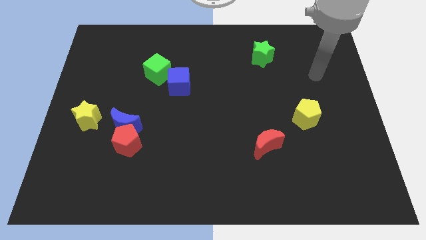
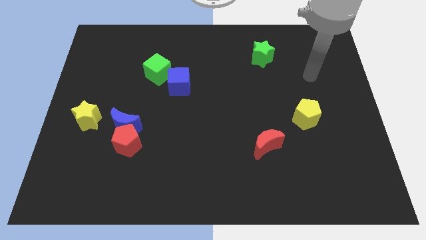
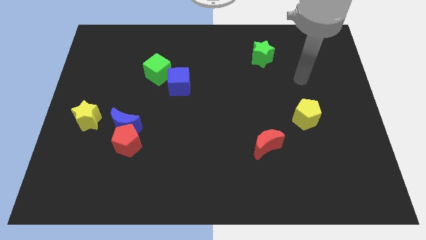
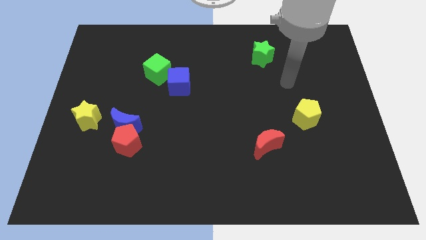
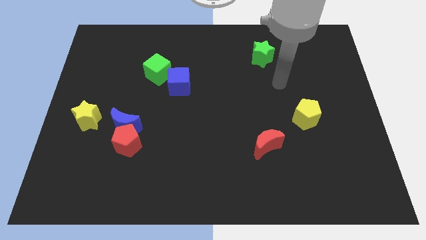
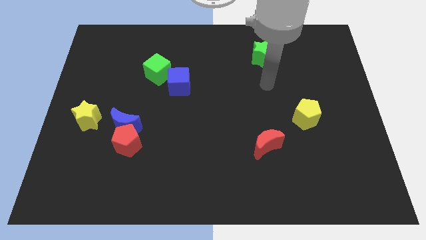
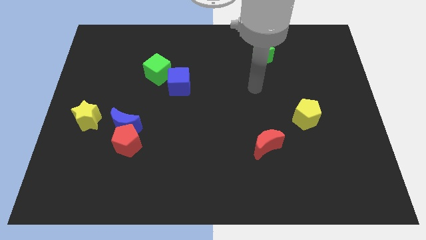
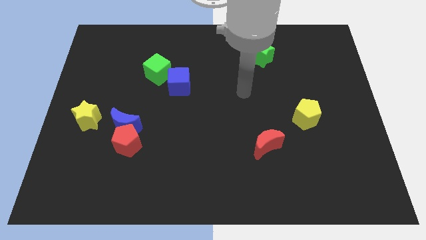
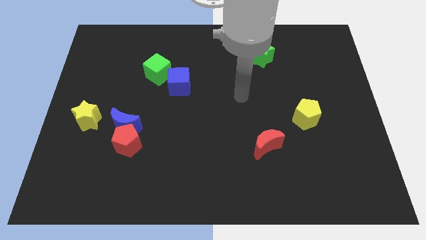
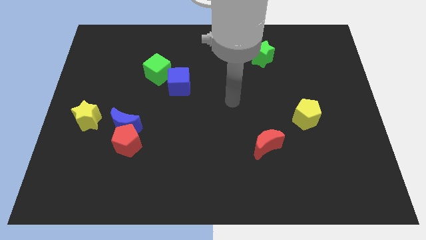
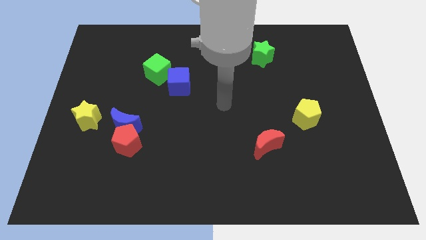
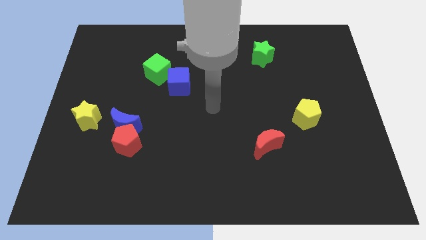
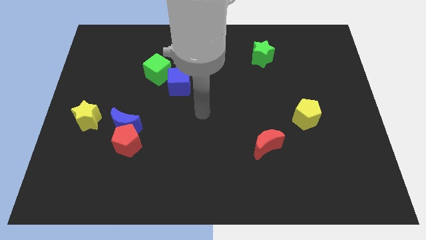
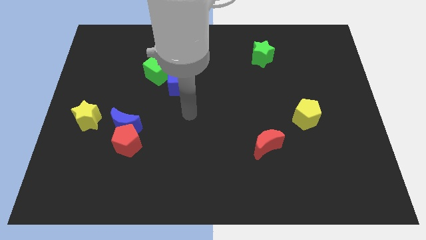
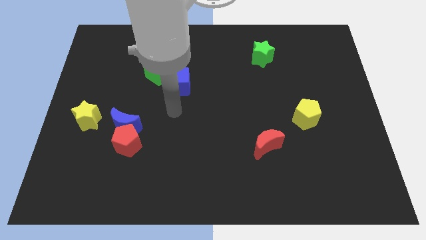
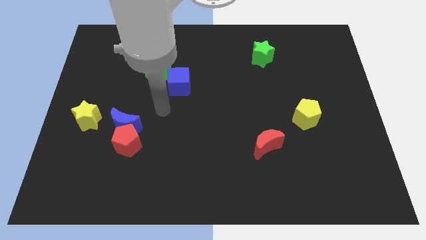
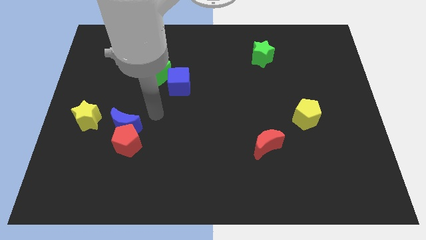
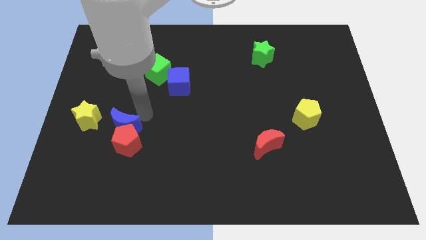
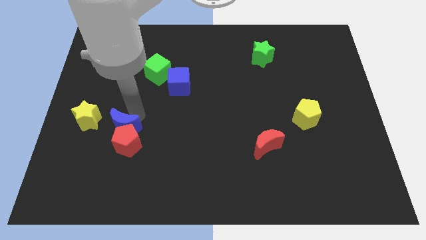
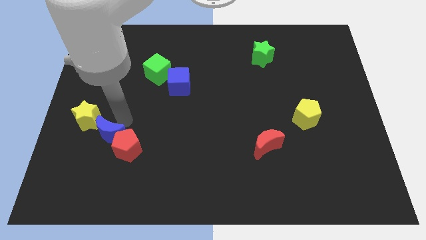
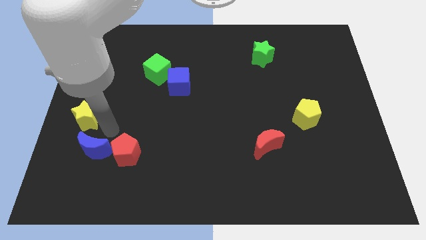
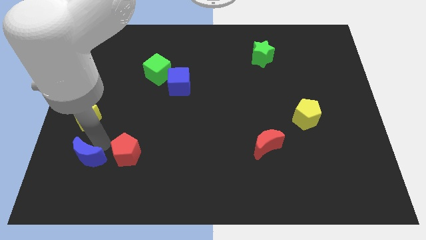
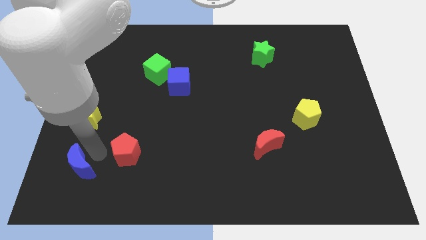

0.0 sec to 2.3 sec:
pull the red pentagon apart from the blue moon

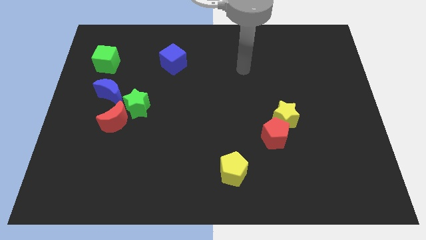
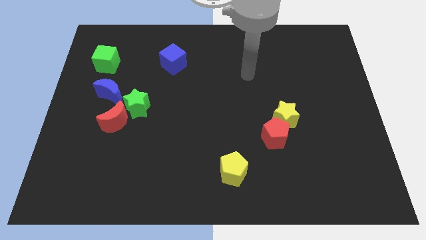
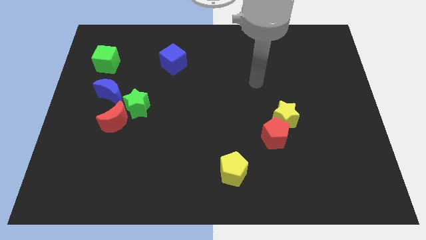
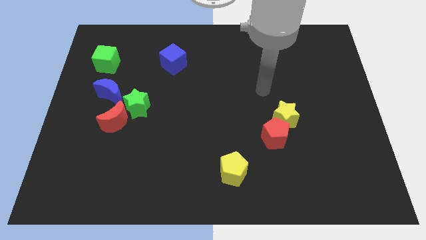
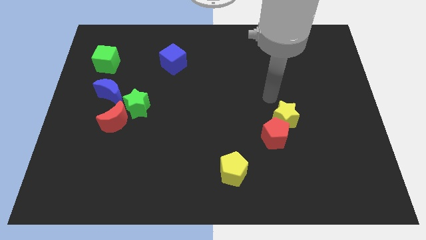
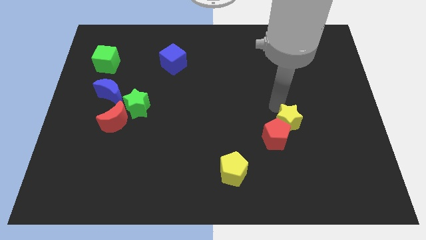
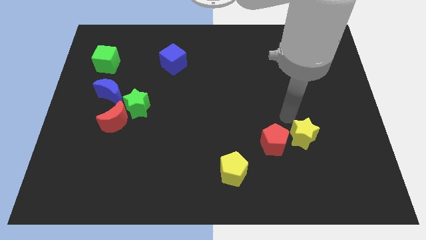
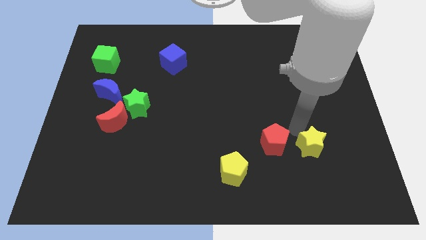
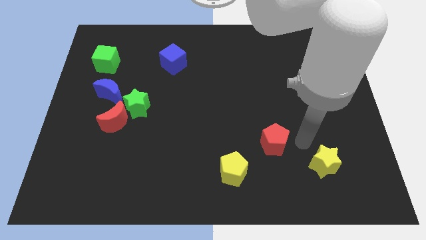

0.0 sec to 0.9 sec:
move the red pentagon away from the yellow star

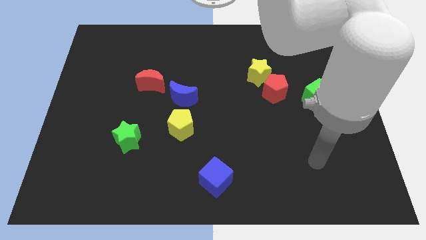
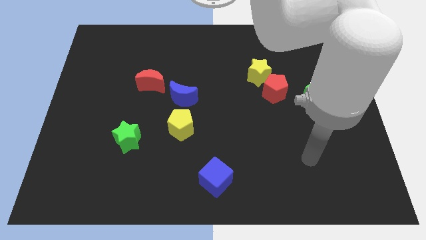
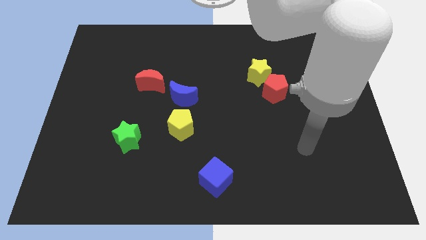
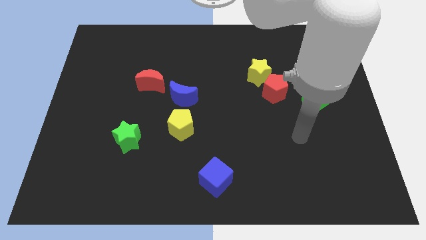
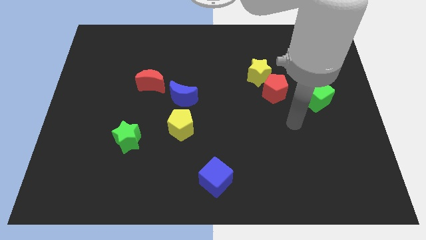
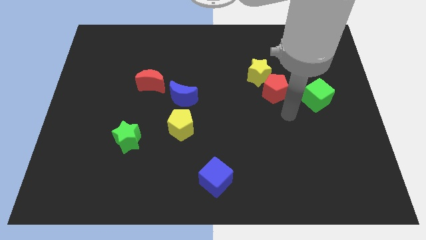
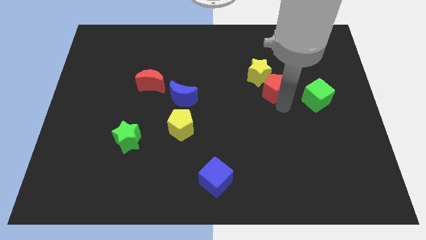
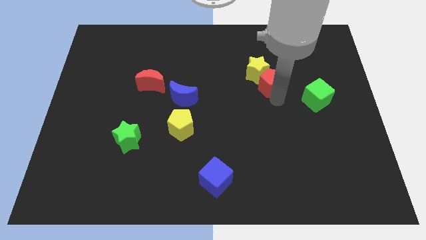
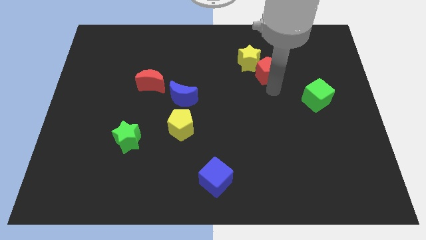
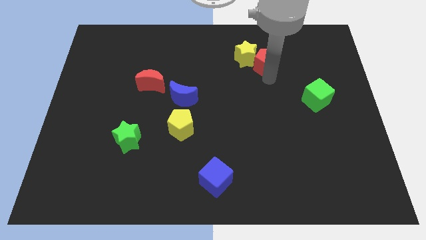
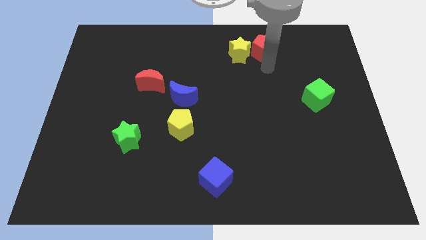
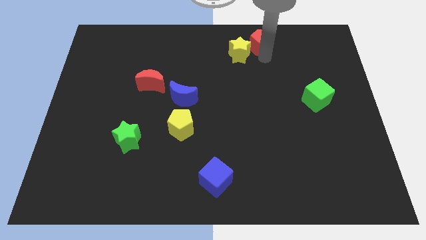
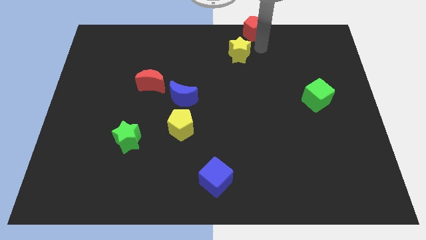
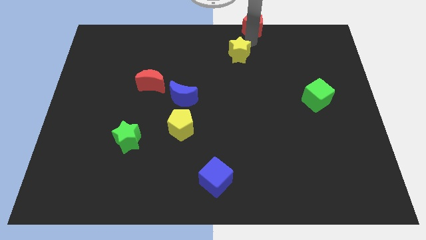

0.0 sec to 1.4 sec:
move the yellow star away from the red pentagon

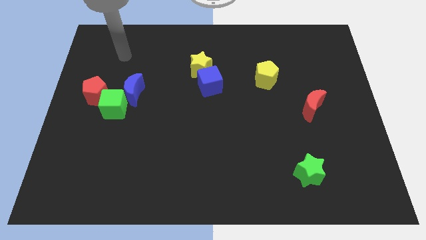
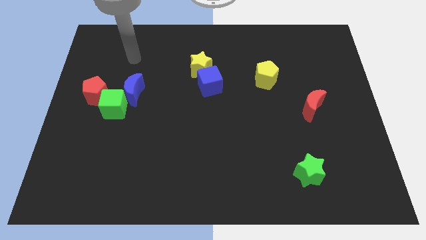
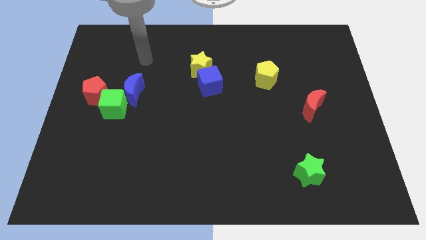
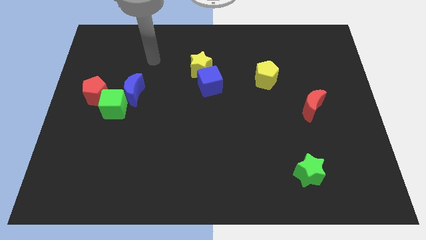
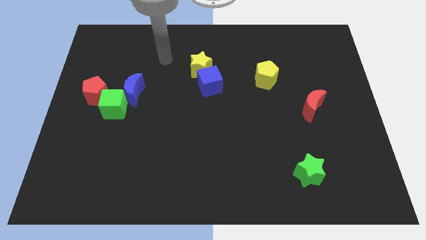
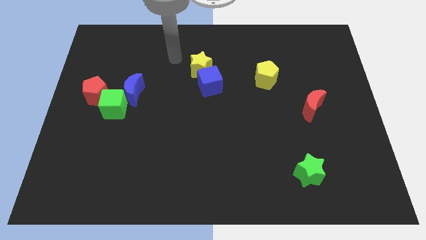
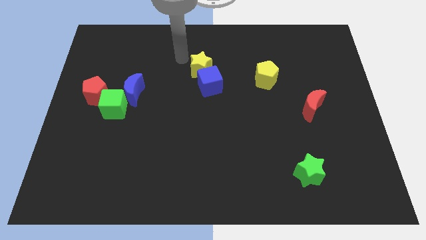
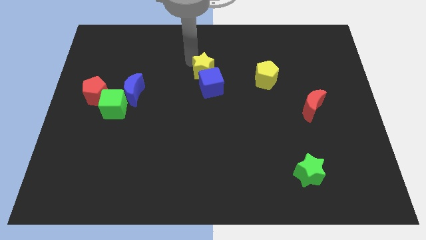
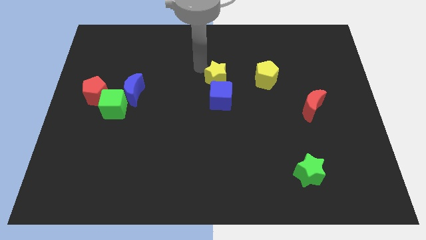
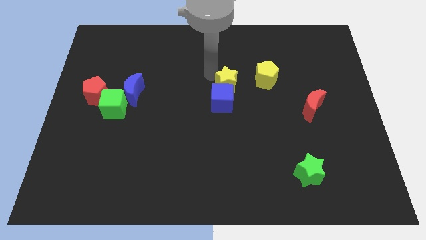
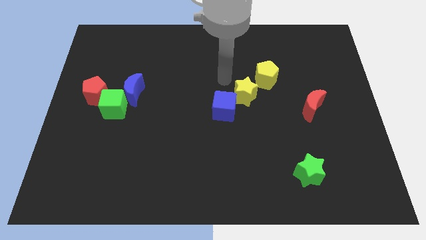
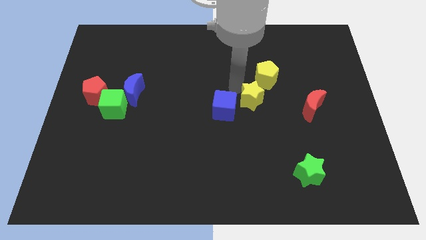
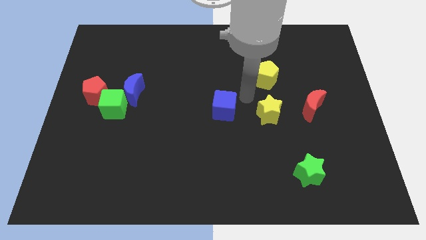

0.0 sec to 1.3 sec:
pull the blue cube apart from the yellow star

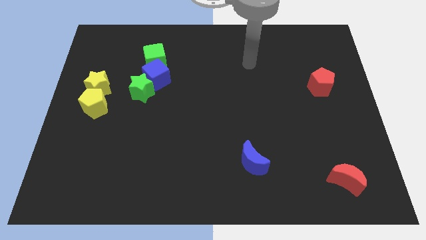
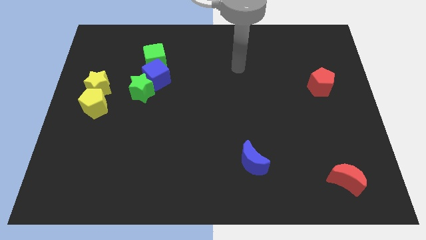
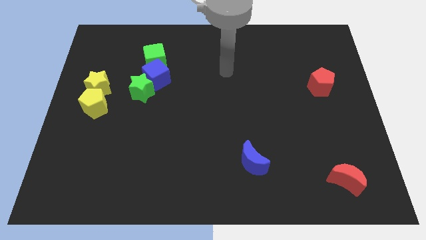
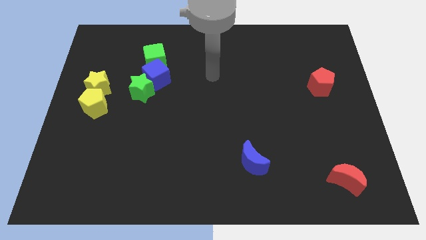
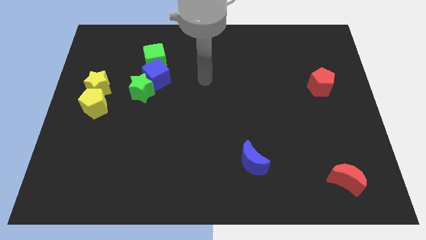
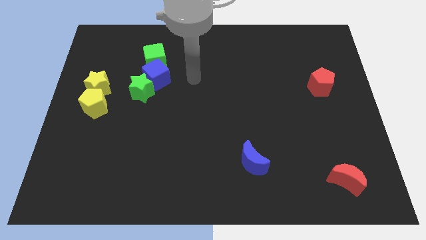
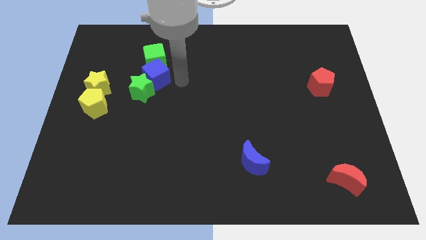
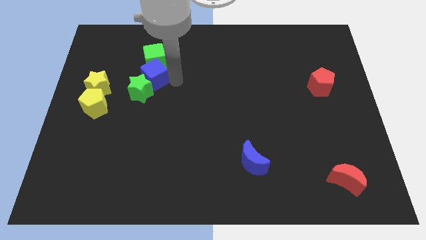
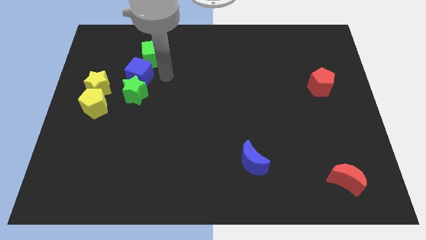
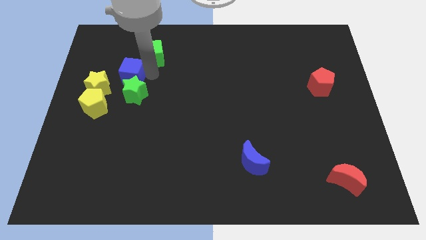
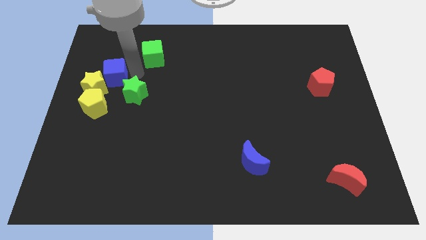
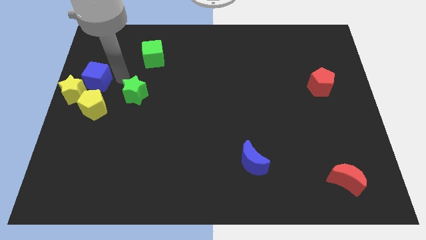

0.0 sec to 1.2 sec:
separate the green star from the blue cube

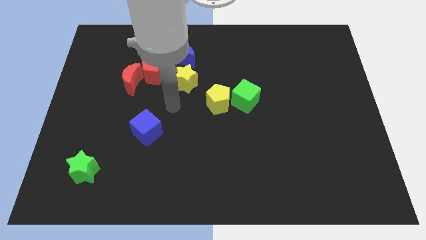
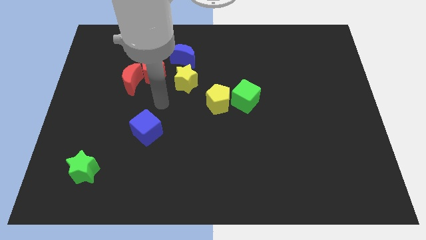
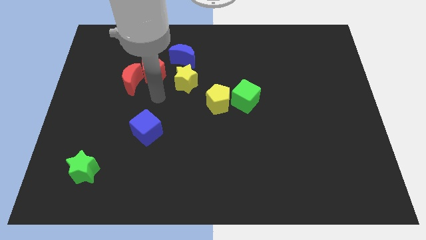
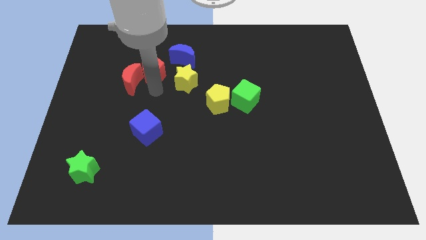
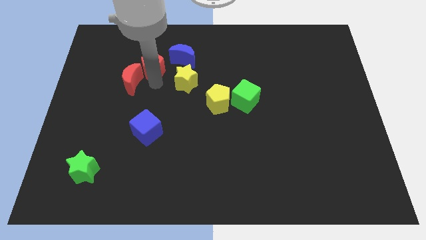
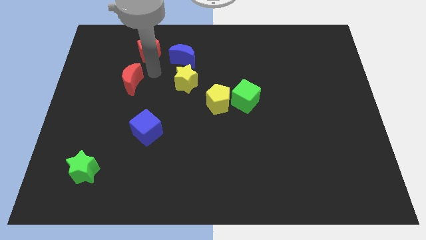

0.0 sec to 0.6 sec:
separate the red moon from the red pentagon

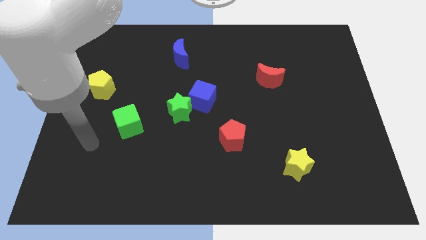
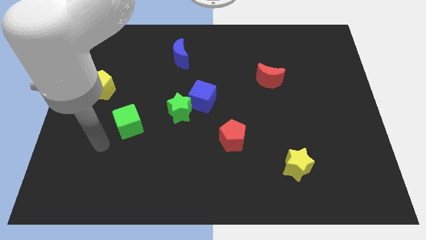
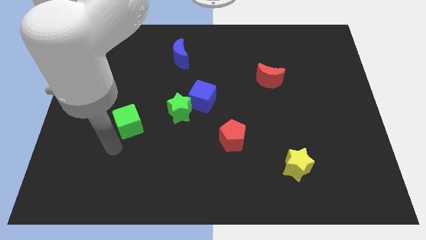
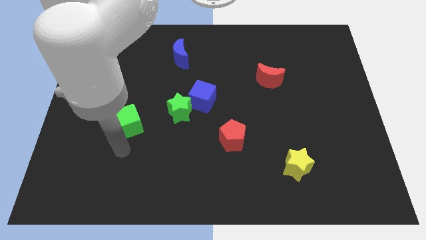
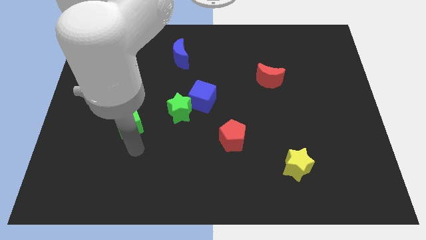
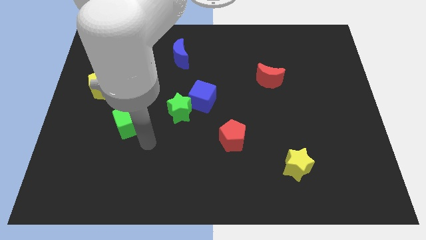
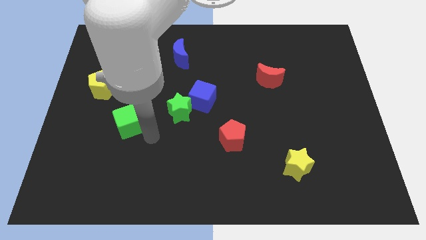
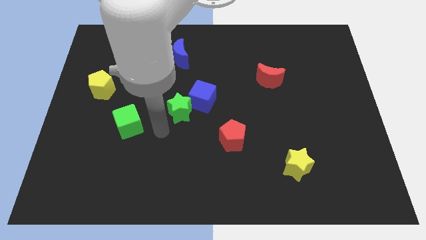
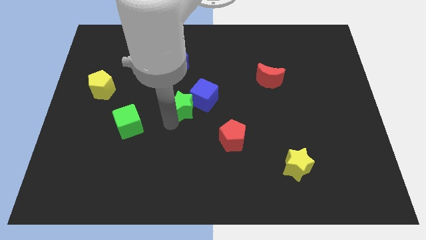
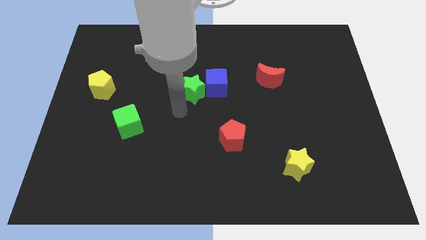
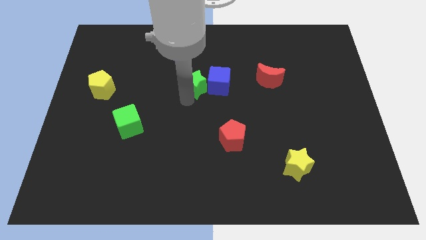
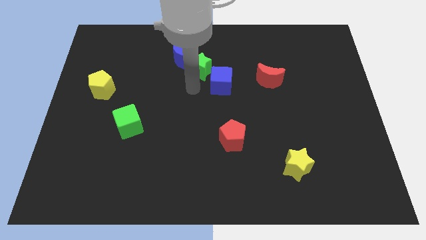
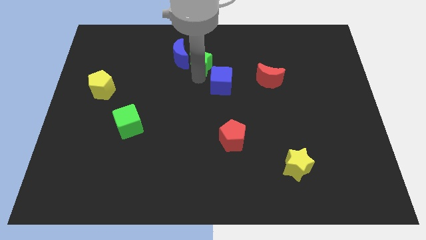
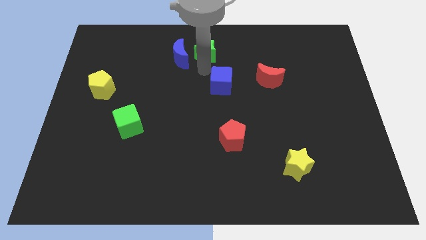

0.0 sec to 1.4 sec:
move the blue cube away from the green star

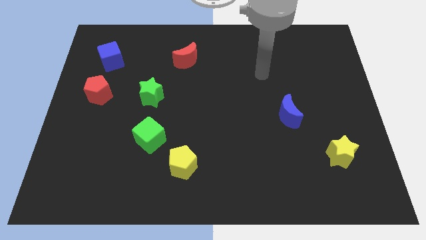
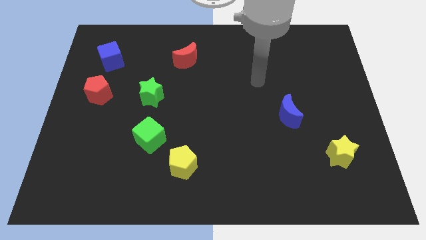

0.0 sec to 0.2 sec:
pull the green cube apart from the yellow pentagon

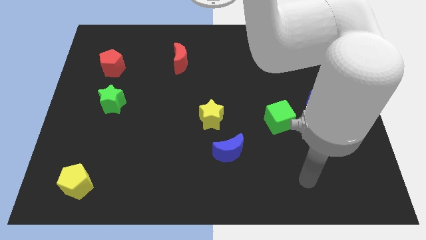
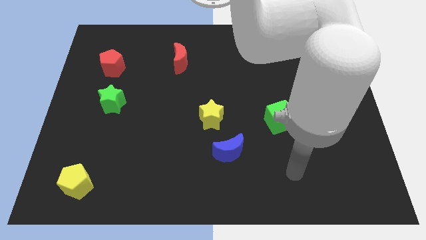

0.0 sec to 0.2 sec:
pull the blue moon apart from the yellow star
